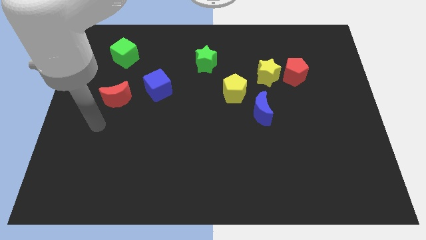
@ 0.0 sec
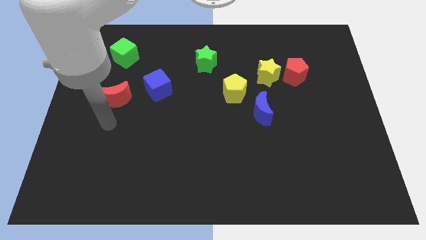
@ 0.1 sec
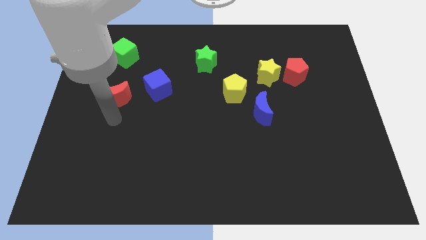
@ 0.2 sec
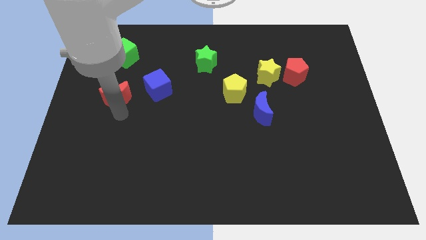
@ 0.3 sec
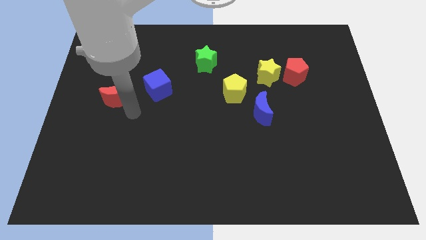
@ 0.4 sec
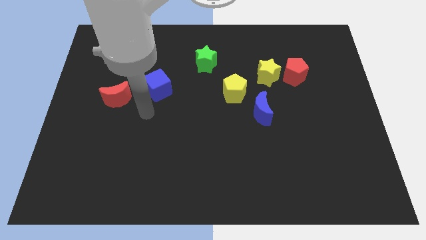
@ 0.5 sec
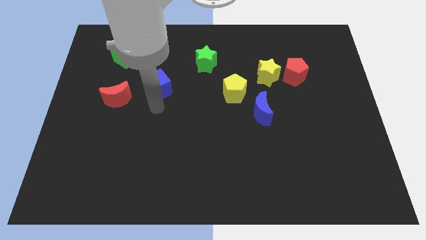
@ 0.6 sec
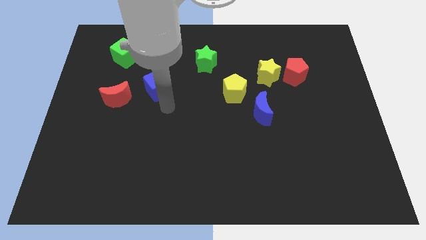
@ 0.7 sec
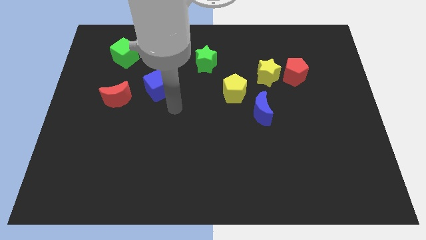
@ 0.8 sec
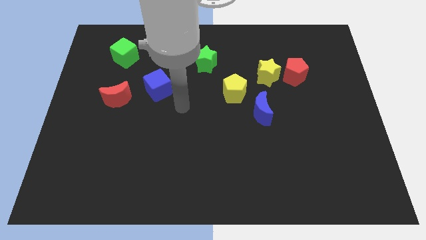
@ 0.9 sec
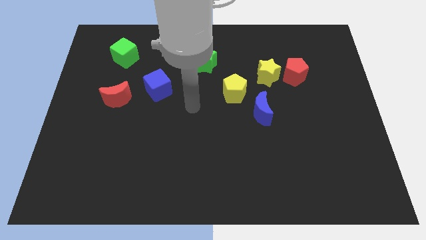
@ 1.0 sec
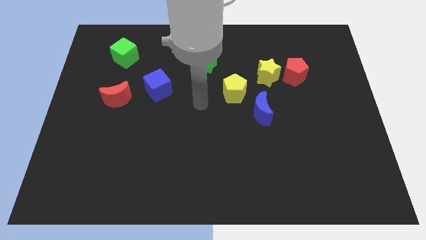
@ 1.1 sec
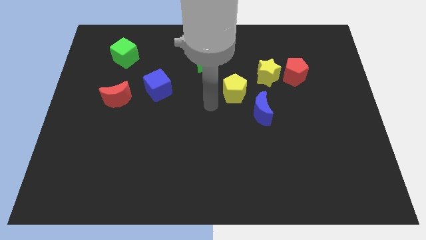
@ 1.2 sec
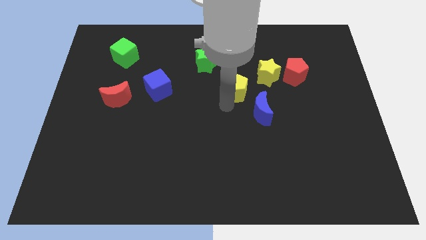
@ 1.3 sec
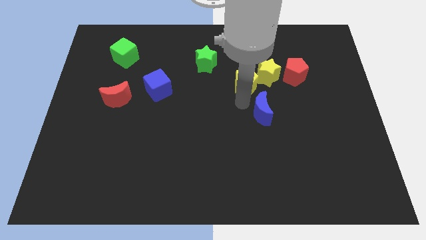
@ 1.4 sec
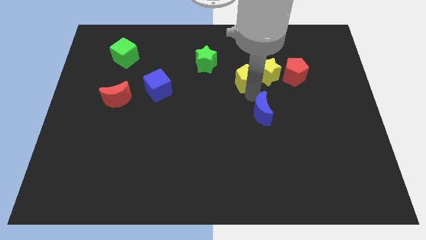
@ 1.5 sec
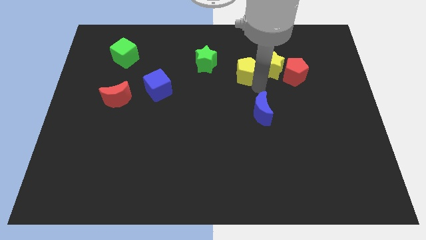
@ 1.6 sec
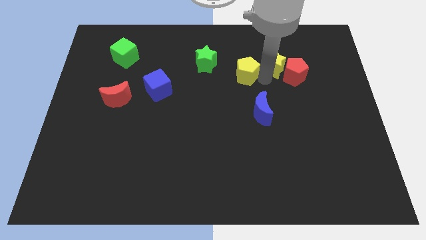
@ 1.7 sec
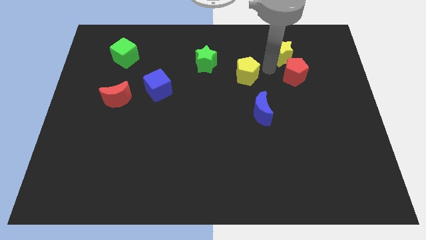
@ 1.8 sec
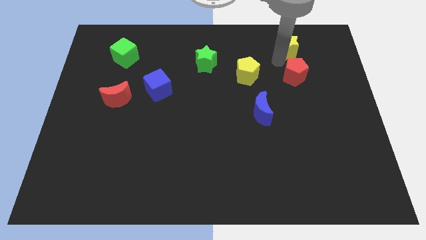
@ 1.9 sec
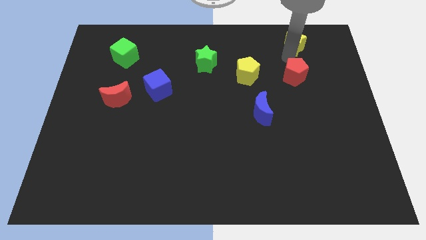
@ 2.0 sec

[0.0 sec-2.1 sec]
pull the red pentagon apart from the yellow star

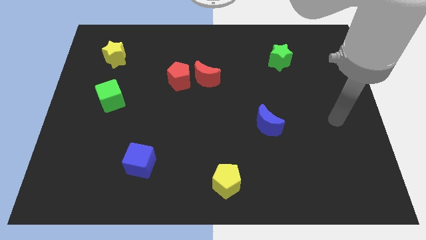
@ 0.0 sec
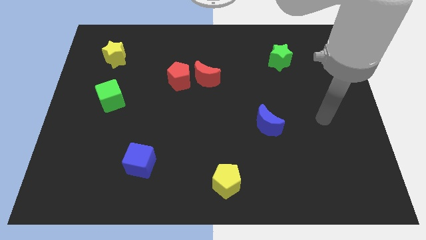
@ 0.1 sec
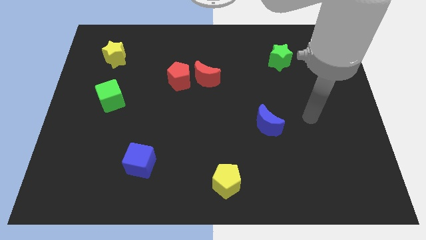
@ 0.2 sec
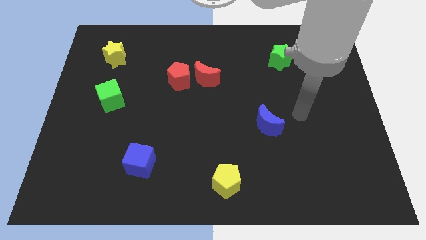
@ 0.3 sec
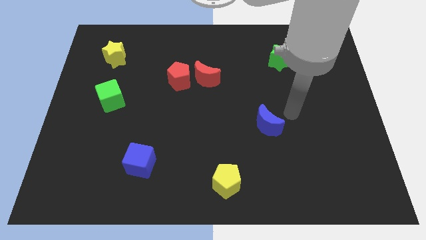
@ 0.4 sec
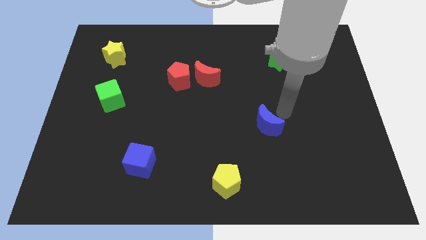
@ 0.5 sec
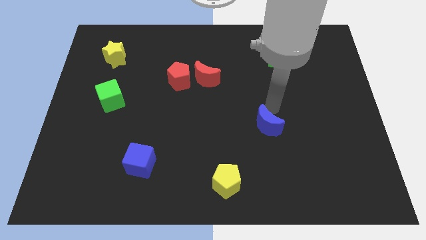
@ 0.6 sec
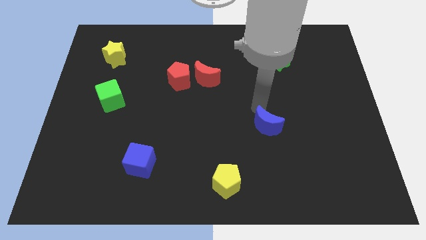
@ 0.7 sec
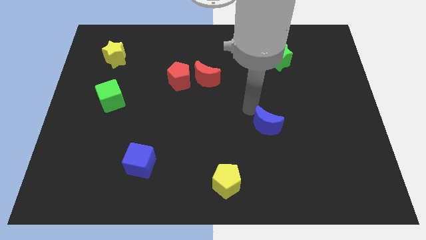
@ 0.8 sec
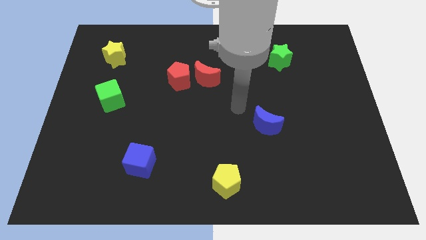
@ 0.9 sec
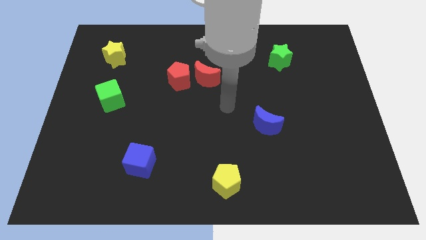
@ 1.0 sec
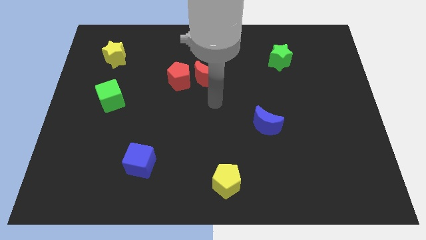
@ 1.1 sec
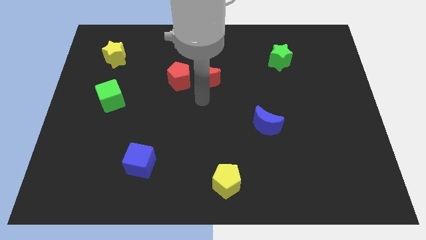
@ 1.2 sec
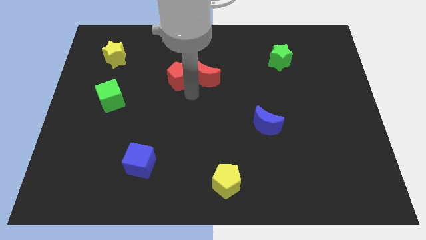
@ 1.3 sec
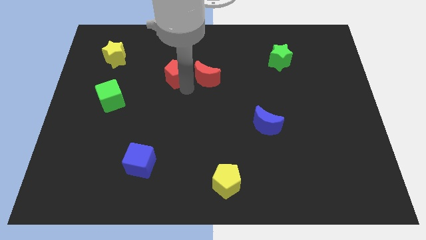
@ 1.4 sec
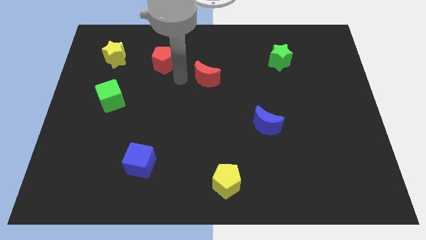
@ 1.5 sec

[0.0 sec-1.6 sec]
move the red moon away from the red pentagon

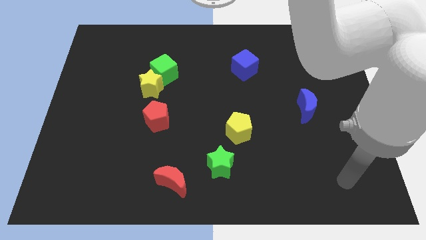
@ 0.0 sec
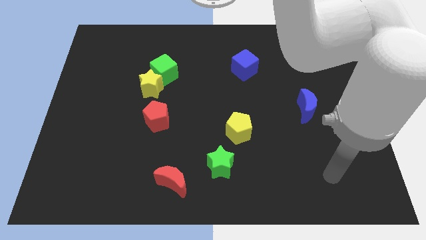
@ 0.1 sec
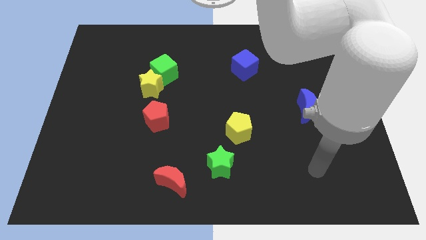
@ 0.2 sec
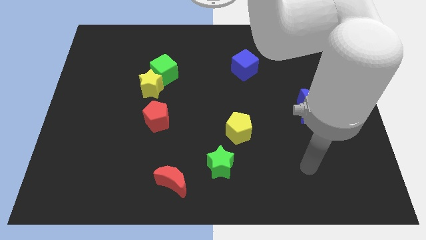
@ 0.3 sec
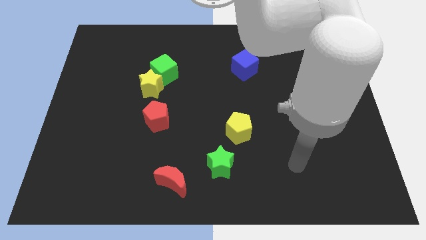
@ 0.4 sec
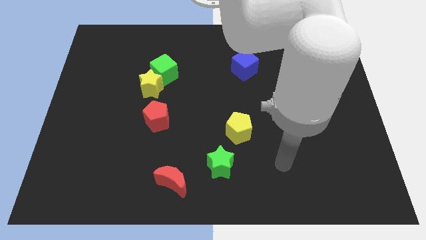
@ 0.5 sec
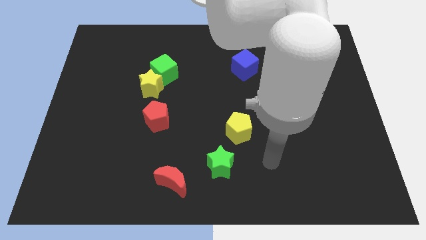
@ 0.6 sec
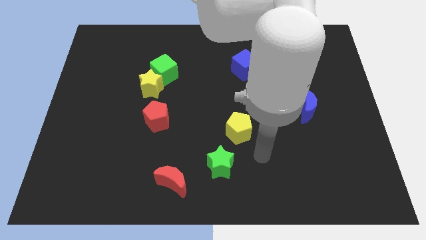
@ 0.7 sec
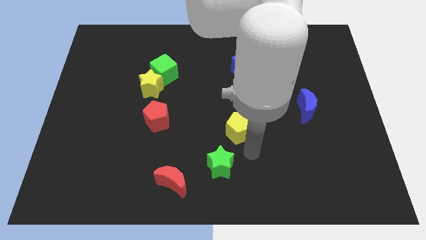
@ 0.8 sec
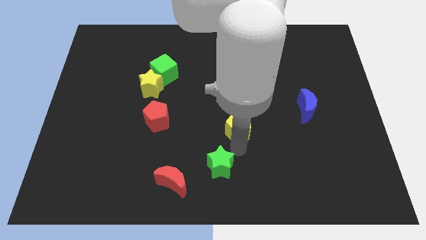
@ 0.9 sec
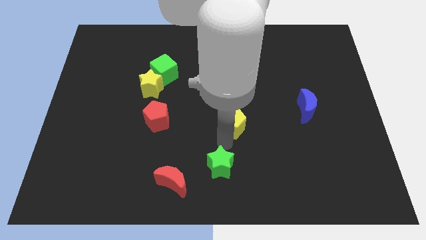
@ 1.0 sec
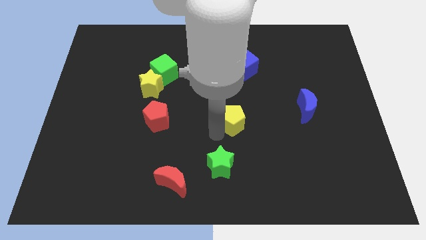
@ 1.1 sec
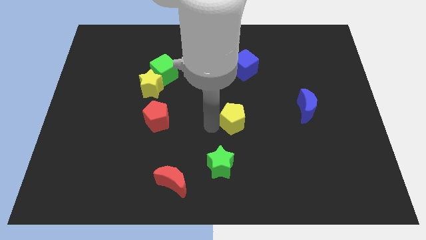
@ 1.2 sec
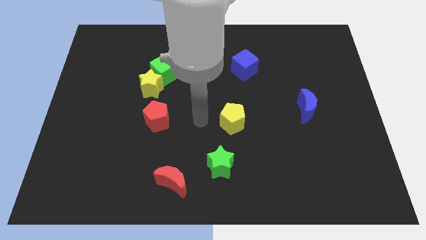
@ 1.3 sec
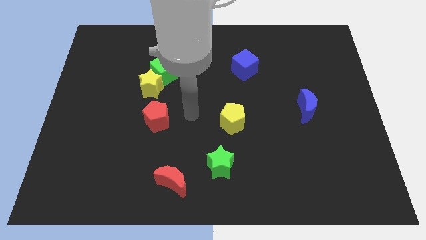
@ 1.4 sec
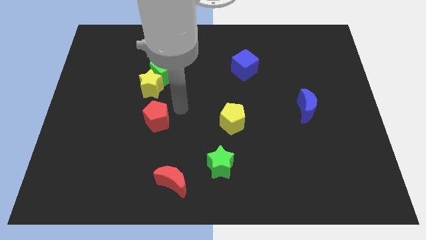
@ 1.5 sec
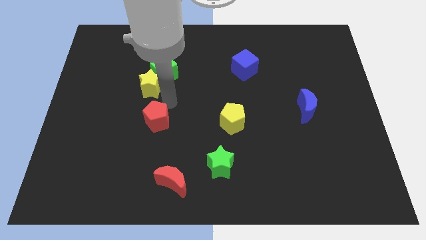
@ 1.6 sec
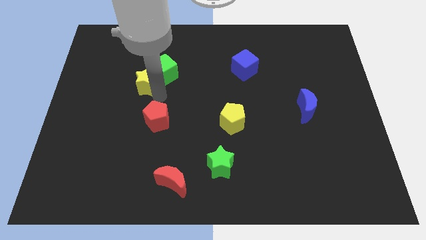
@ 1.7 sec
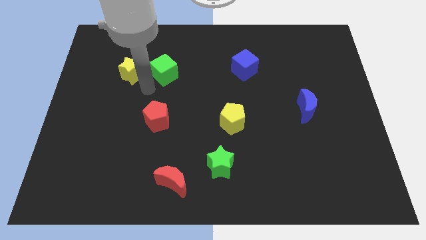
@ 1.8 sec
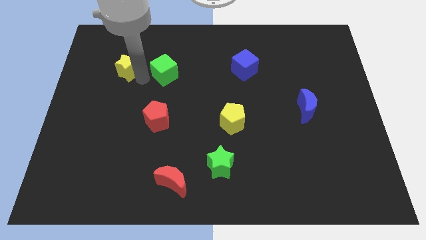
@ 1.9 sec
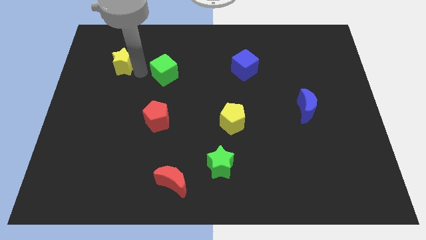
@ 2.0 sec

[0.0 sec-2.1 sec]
move the green cube away from the yellow star

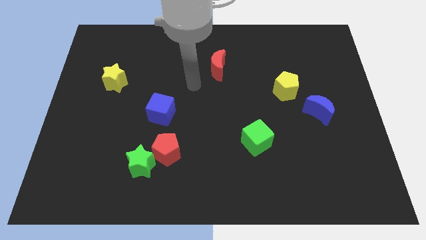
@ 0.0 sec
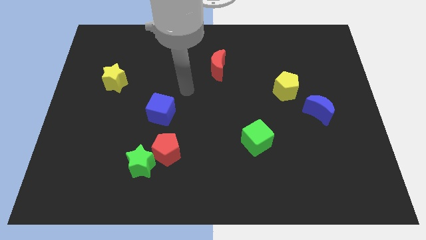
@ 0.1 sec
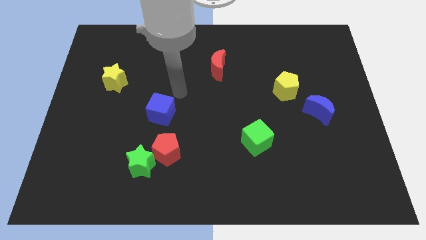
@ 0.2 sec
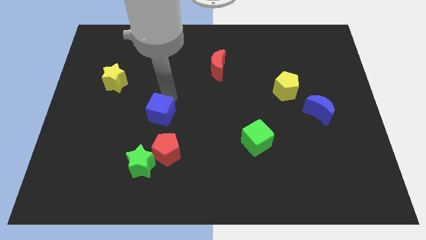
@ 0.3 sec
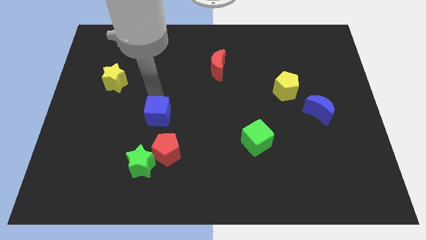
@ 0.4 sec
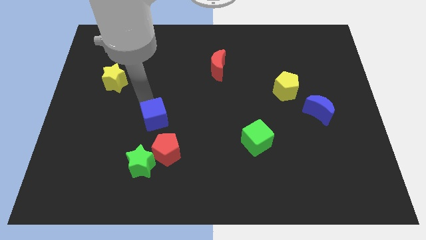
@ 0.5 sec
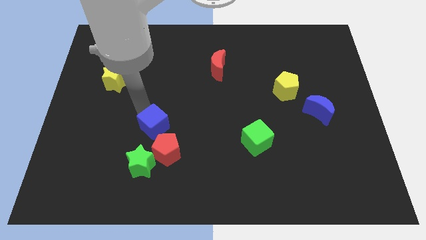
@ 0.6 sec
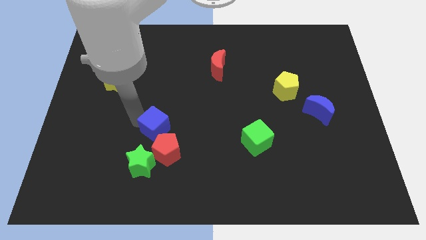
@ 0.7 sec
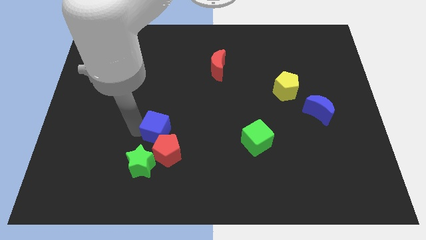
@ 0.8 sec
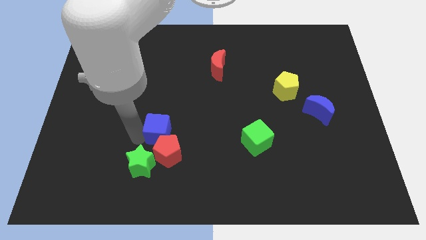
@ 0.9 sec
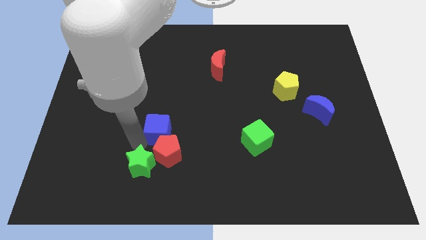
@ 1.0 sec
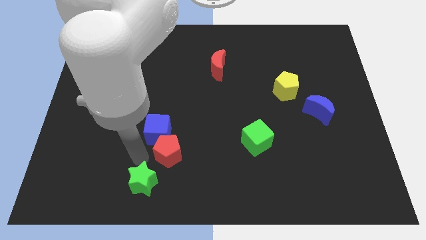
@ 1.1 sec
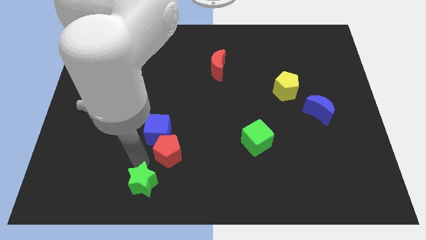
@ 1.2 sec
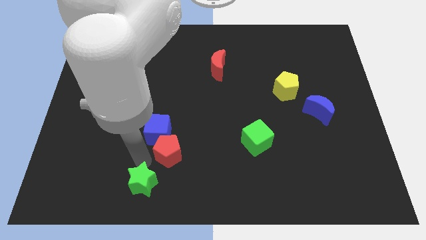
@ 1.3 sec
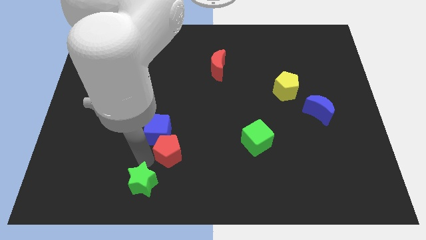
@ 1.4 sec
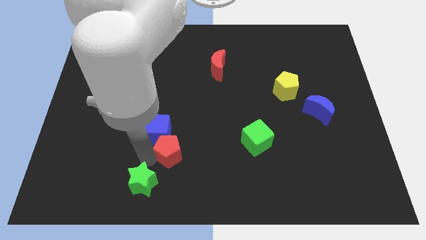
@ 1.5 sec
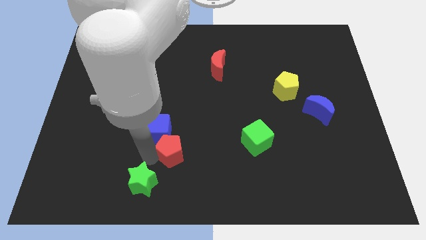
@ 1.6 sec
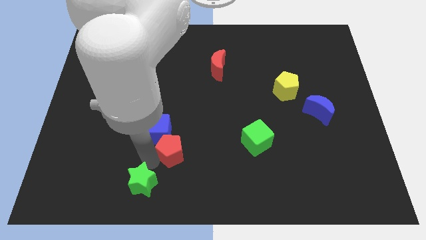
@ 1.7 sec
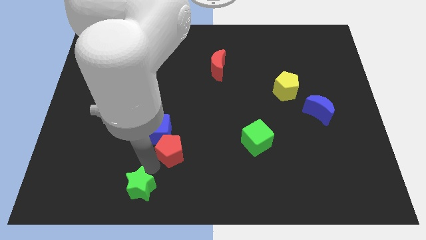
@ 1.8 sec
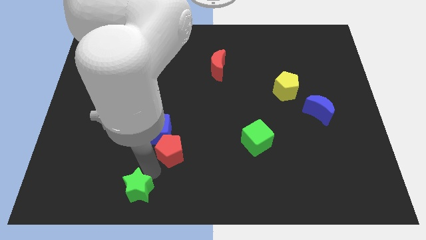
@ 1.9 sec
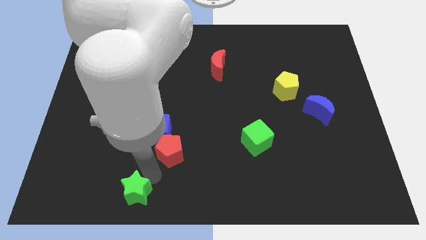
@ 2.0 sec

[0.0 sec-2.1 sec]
move the red pentagon away from the green star

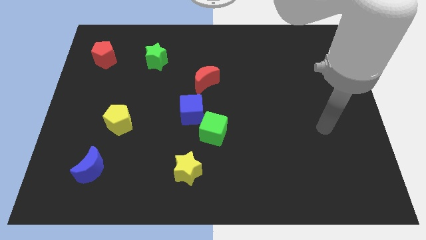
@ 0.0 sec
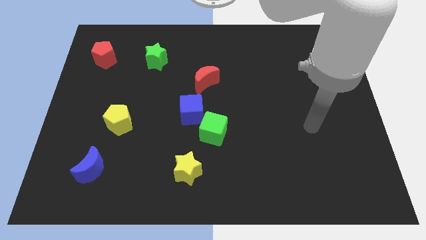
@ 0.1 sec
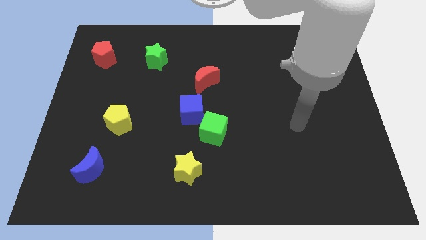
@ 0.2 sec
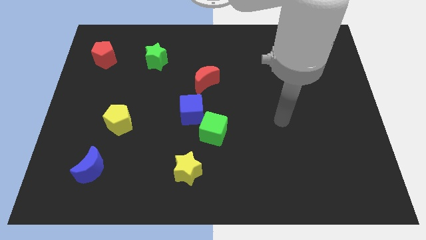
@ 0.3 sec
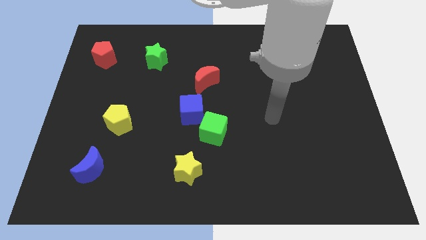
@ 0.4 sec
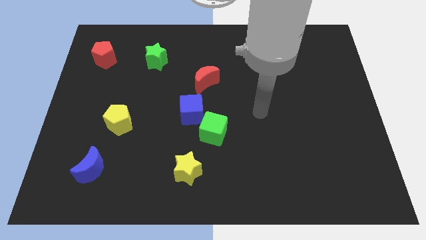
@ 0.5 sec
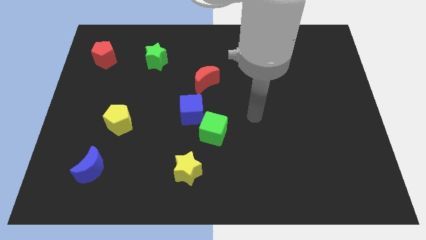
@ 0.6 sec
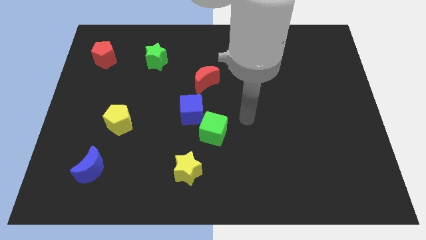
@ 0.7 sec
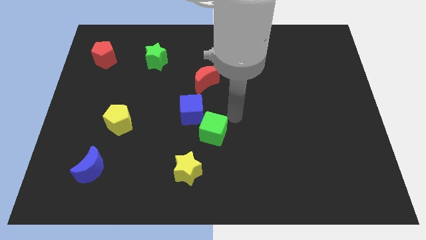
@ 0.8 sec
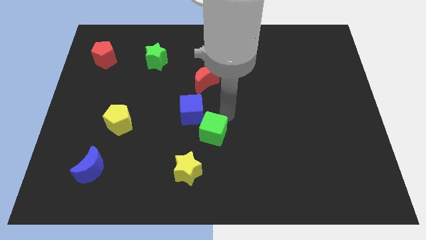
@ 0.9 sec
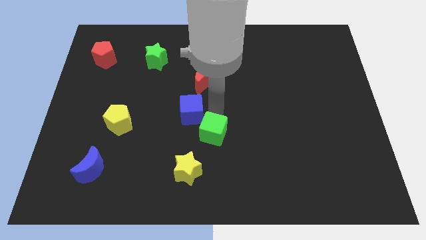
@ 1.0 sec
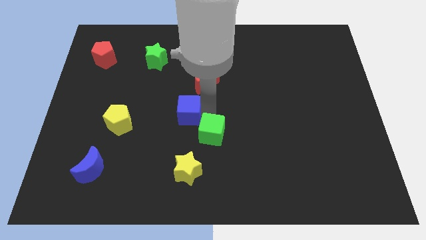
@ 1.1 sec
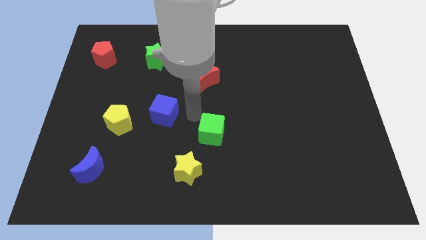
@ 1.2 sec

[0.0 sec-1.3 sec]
separate the green cube from the blue cube
